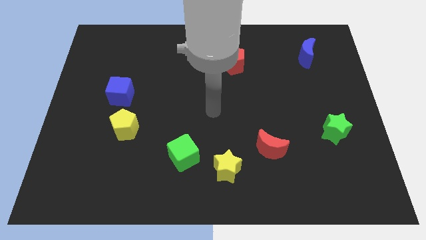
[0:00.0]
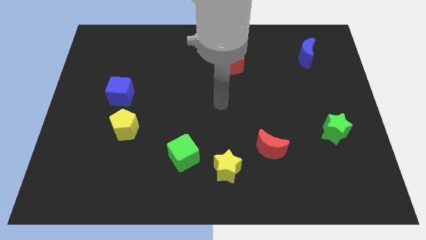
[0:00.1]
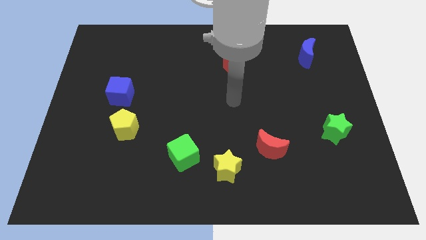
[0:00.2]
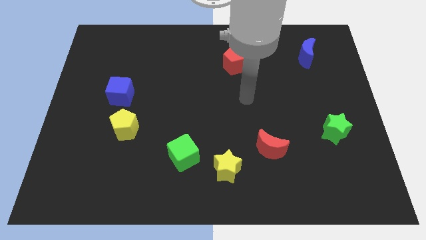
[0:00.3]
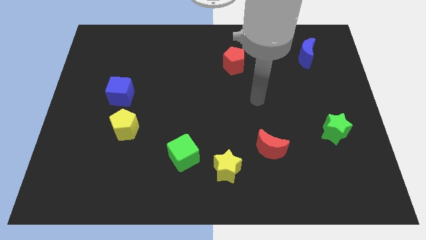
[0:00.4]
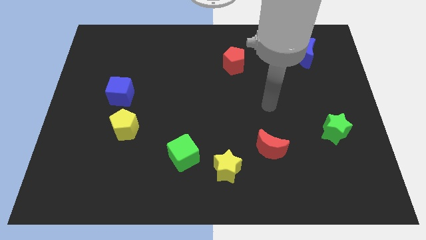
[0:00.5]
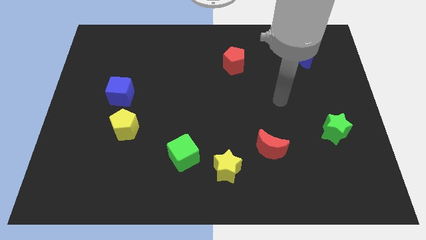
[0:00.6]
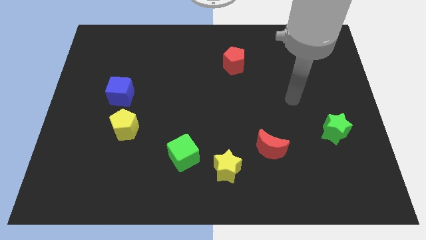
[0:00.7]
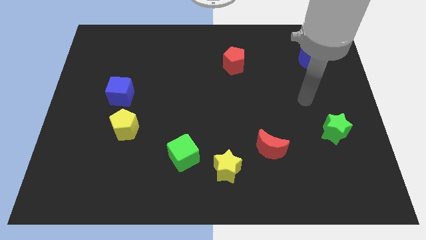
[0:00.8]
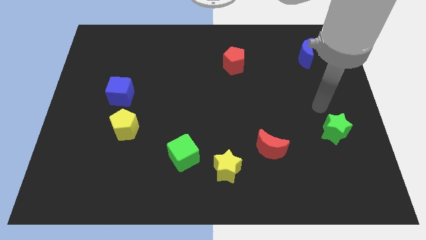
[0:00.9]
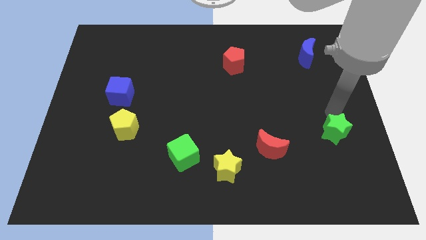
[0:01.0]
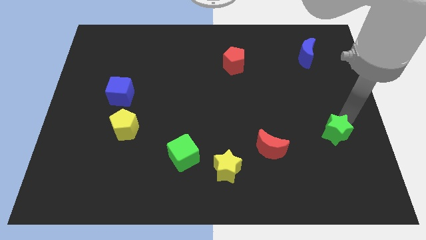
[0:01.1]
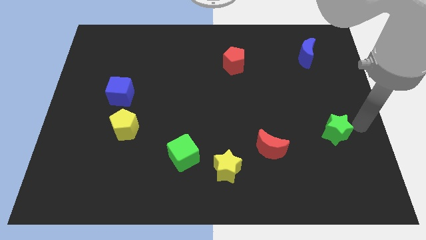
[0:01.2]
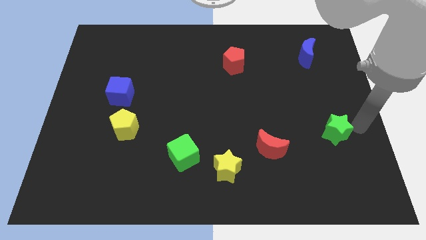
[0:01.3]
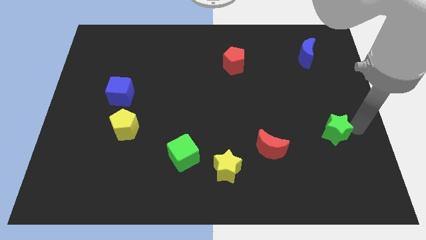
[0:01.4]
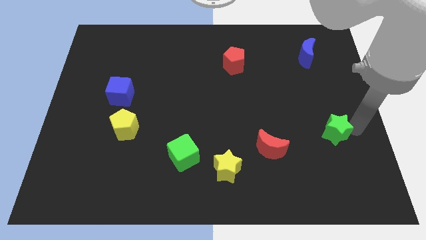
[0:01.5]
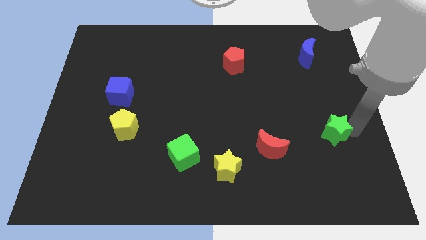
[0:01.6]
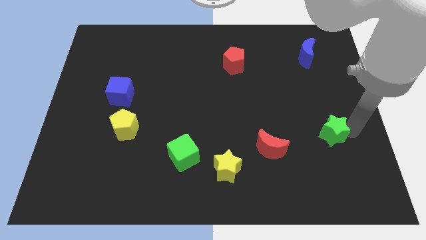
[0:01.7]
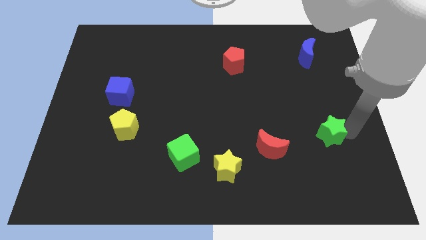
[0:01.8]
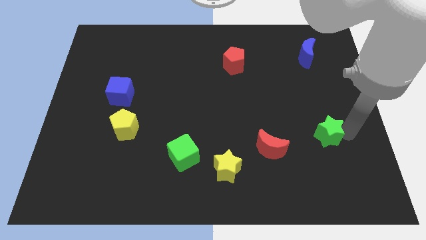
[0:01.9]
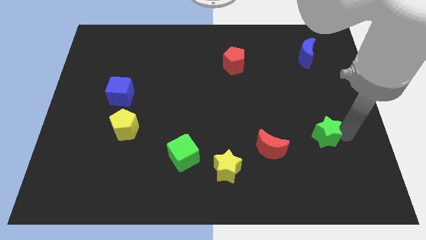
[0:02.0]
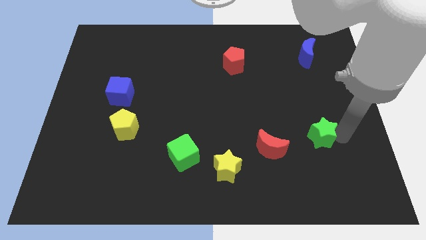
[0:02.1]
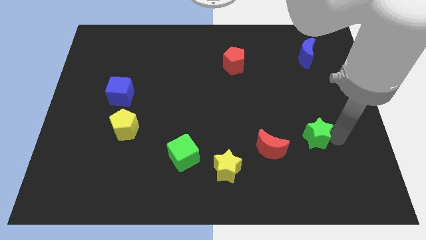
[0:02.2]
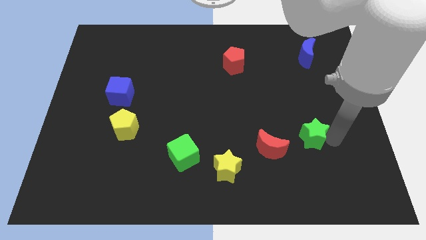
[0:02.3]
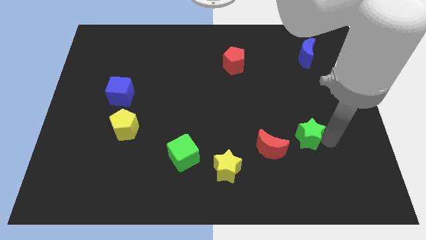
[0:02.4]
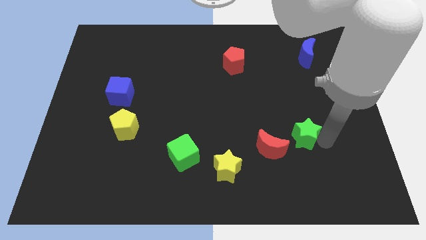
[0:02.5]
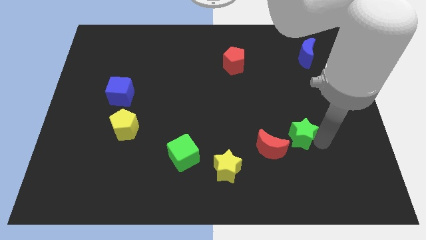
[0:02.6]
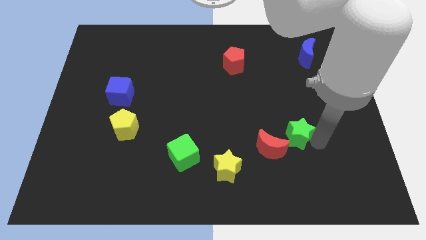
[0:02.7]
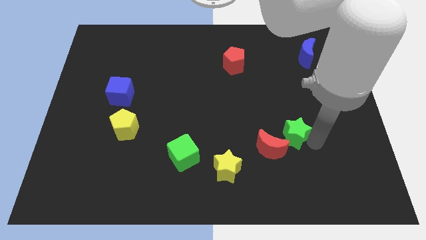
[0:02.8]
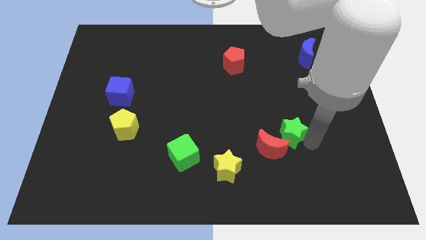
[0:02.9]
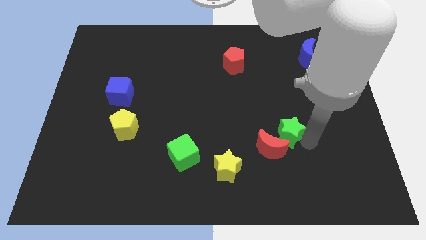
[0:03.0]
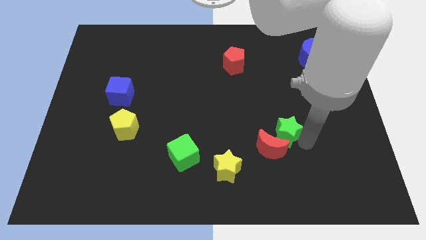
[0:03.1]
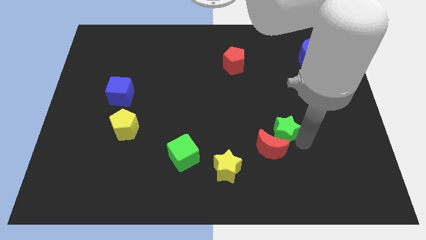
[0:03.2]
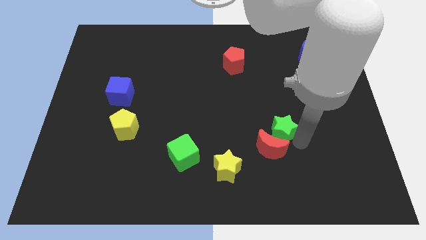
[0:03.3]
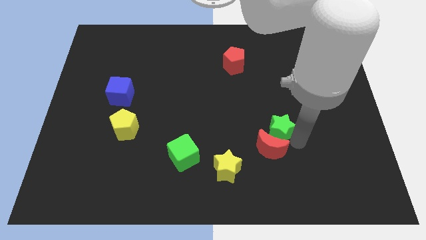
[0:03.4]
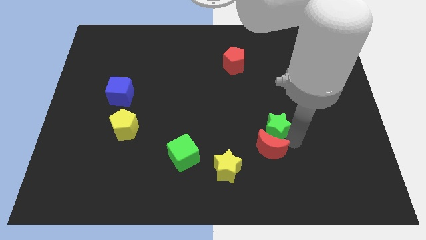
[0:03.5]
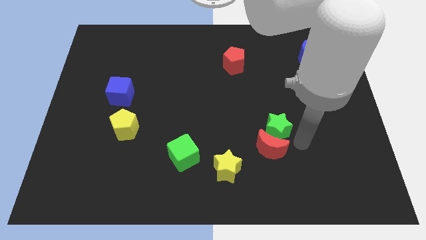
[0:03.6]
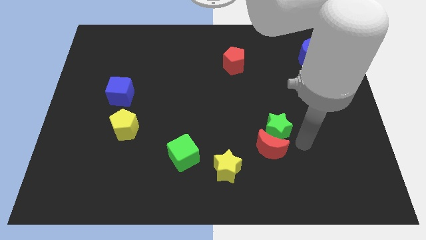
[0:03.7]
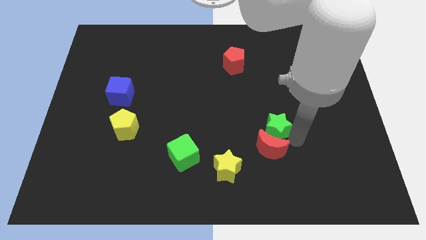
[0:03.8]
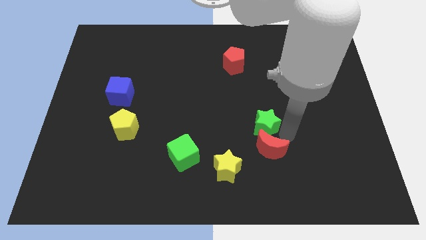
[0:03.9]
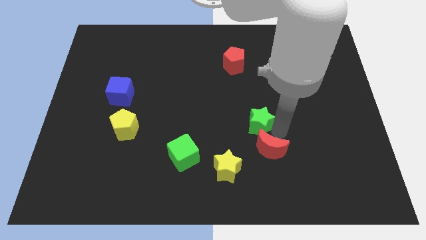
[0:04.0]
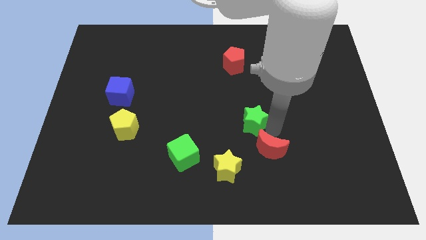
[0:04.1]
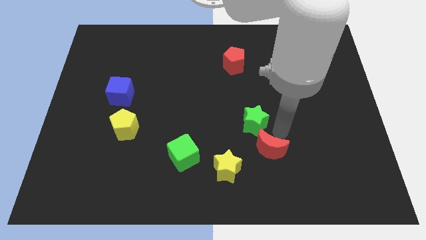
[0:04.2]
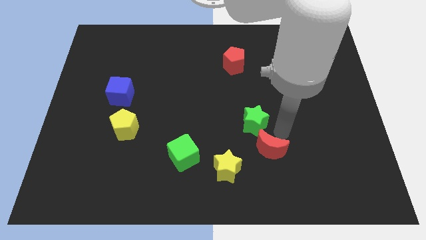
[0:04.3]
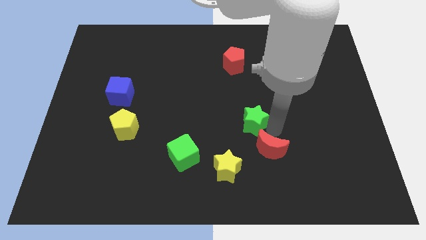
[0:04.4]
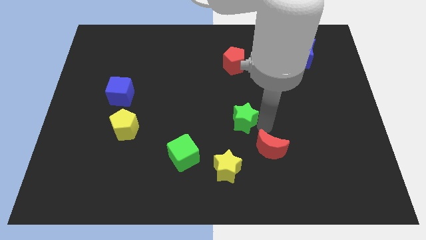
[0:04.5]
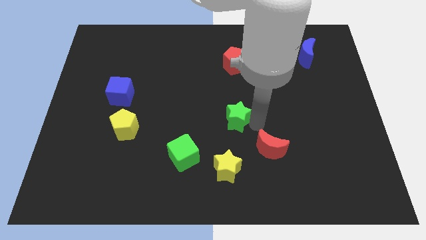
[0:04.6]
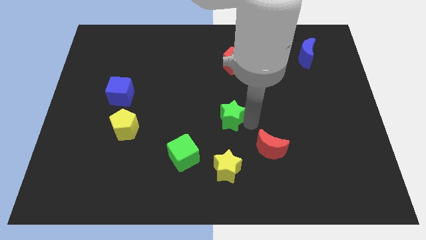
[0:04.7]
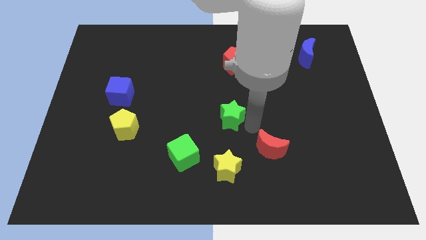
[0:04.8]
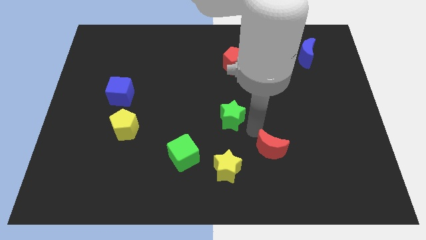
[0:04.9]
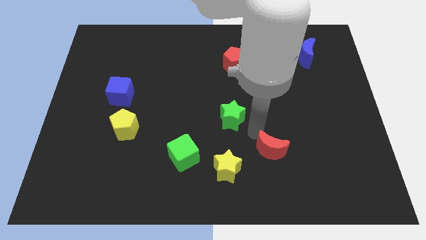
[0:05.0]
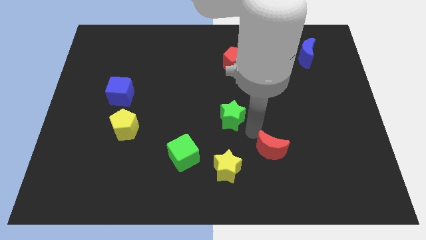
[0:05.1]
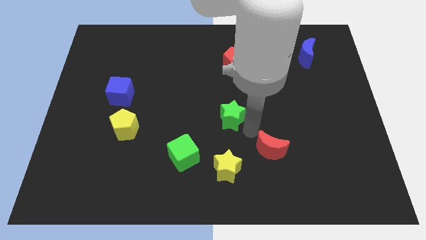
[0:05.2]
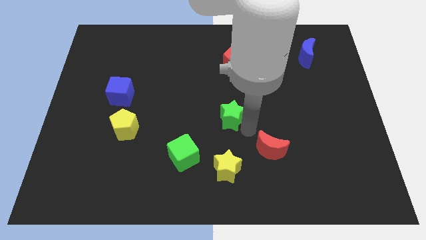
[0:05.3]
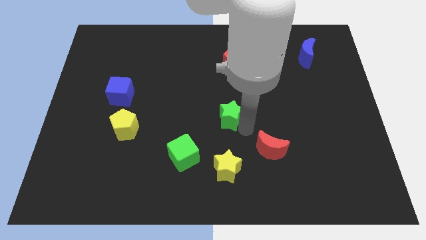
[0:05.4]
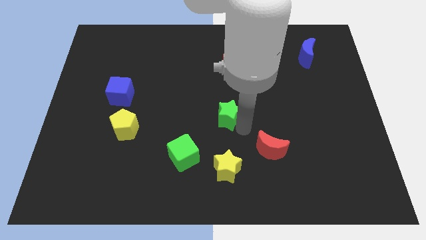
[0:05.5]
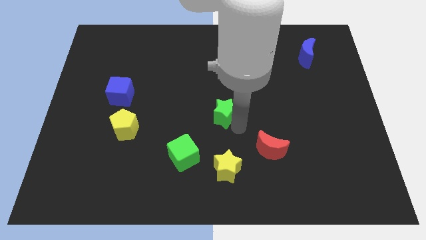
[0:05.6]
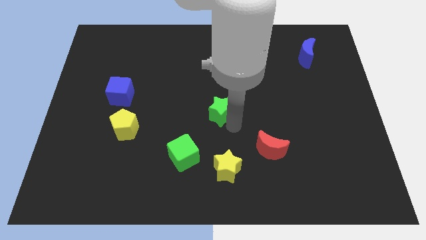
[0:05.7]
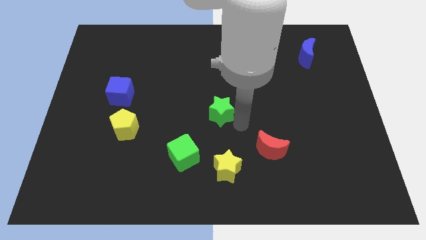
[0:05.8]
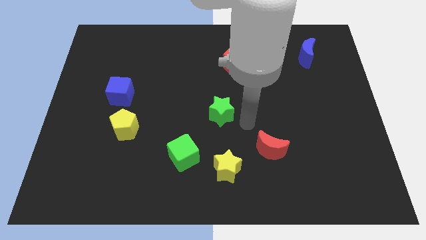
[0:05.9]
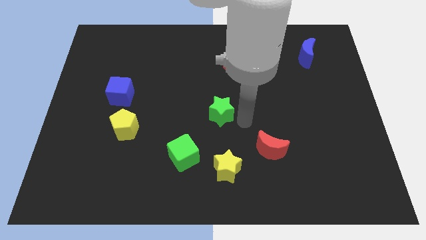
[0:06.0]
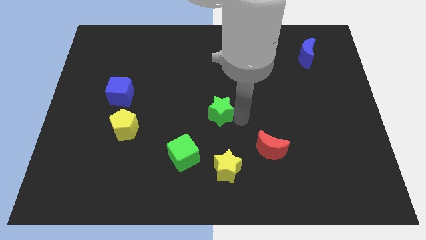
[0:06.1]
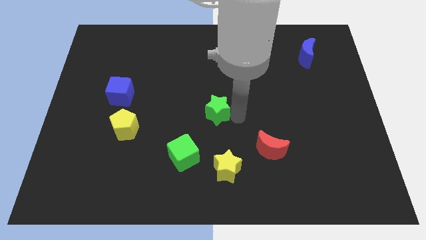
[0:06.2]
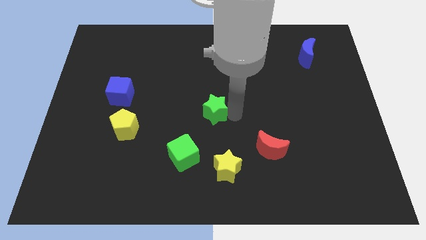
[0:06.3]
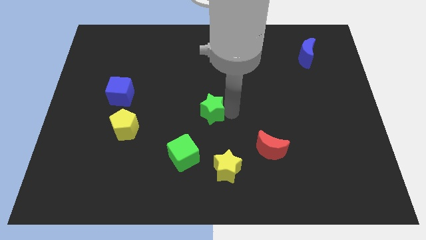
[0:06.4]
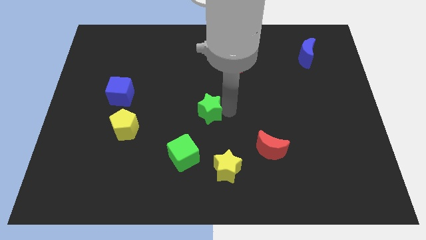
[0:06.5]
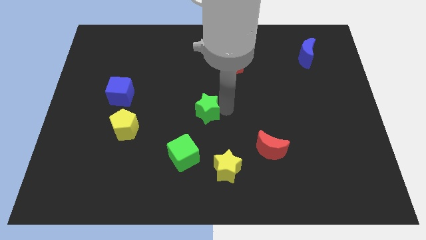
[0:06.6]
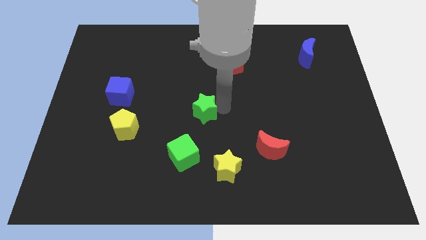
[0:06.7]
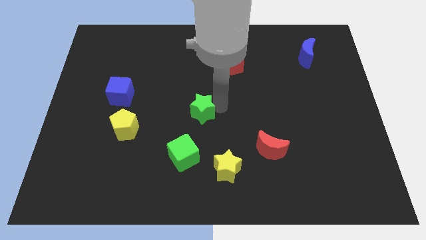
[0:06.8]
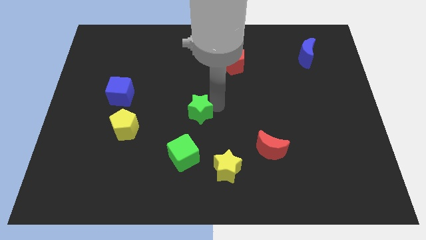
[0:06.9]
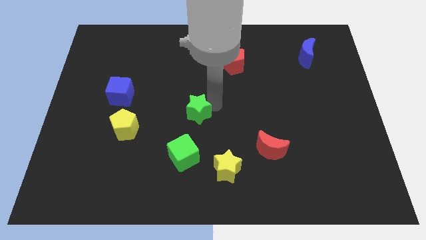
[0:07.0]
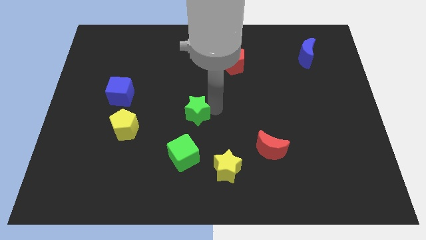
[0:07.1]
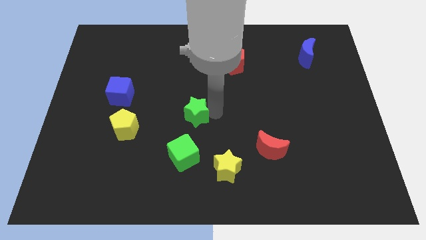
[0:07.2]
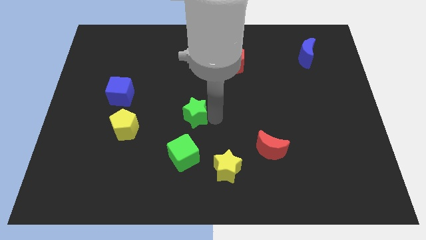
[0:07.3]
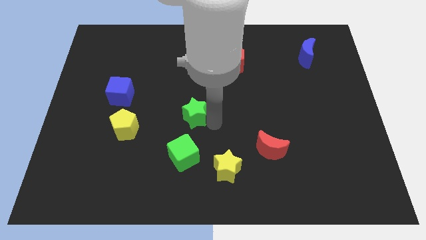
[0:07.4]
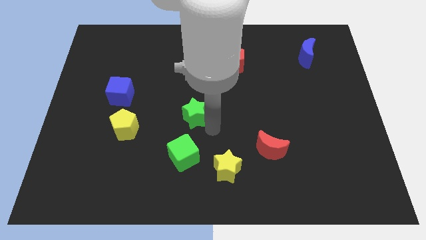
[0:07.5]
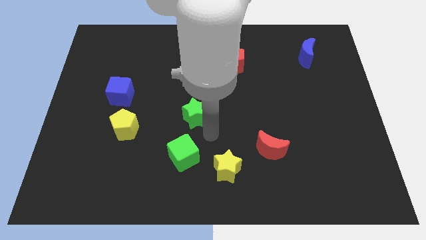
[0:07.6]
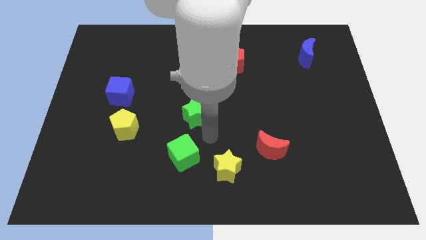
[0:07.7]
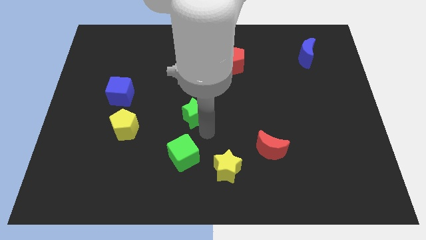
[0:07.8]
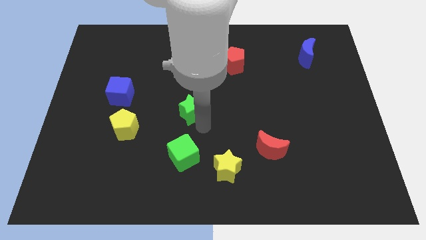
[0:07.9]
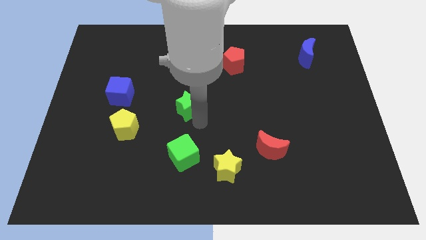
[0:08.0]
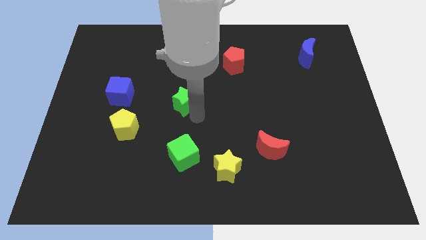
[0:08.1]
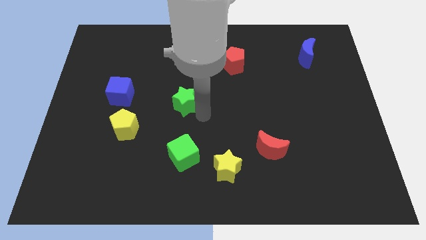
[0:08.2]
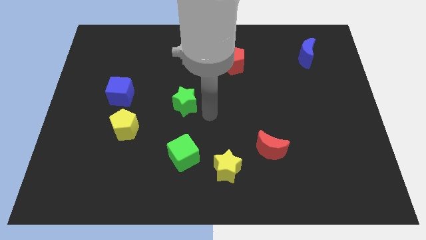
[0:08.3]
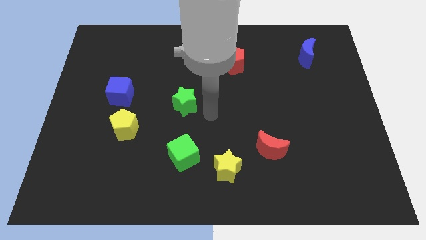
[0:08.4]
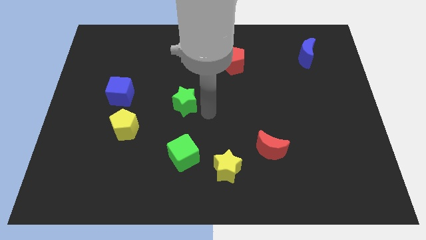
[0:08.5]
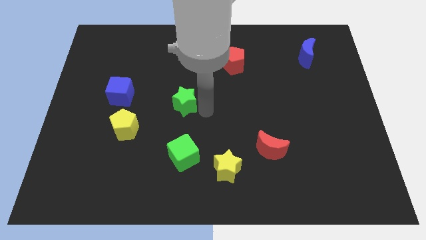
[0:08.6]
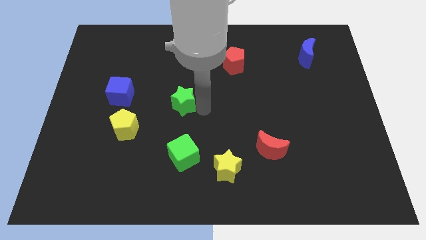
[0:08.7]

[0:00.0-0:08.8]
move the green star to the right of the blue cube
